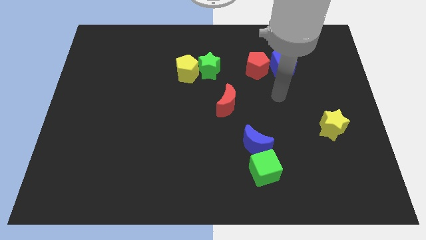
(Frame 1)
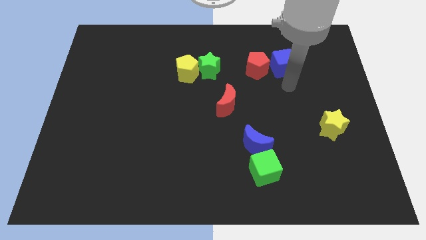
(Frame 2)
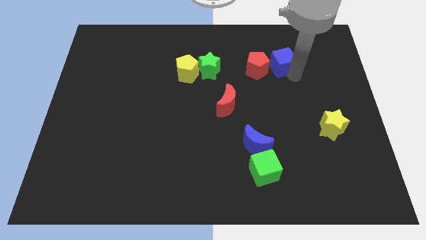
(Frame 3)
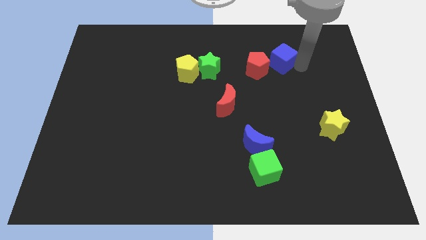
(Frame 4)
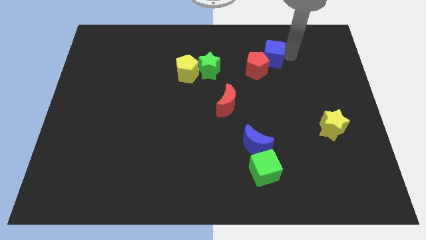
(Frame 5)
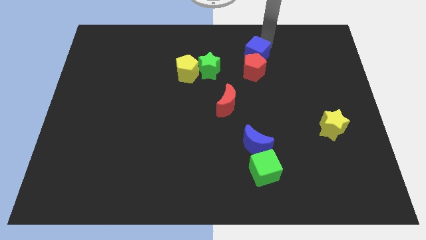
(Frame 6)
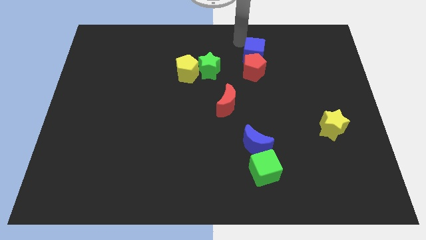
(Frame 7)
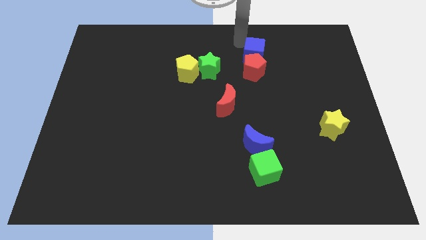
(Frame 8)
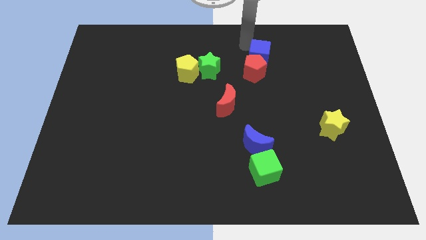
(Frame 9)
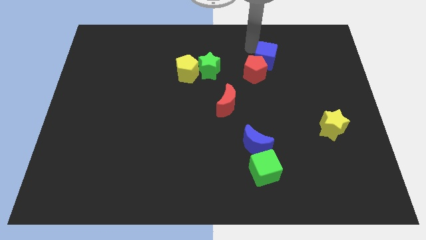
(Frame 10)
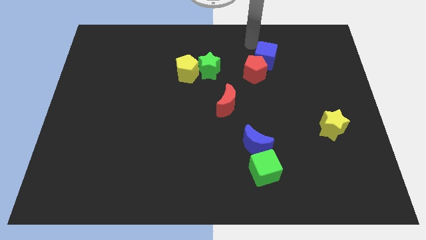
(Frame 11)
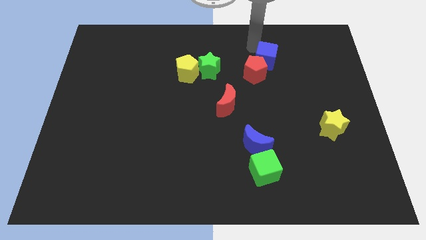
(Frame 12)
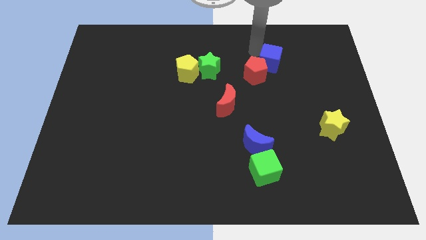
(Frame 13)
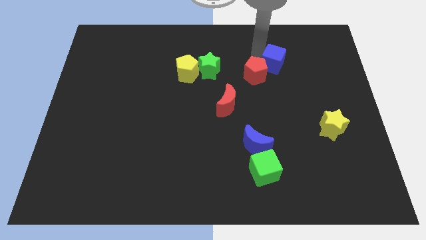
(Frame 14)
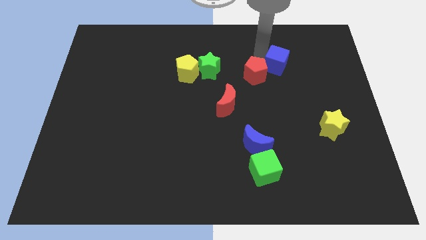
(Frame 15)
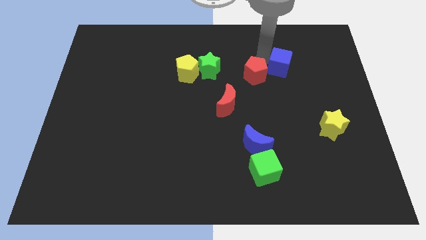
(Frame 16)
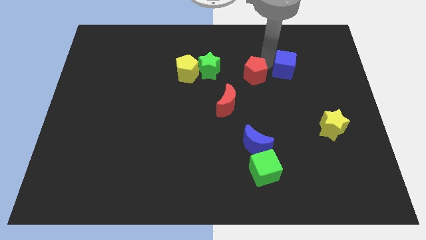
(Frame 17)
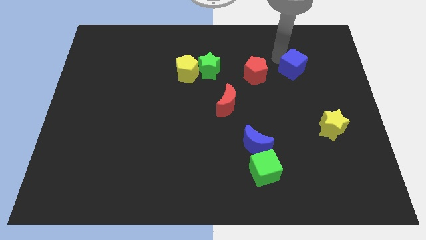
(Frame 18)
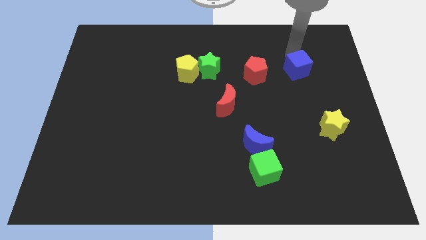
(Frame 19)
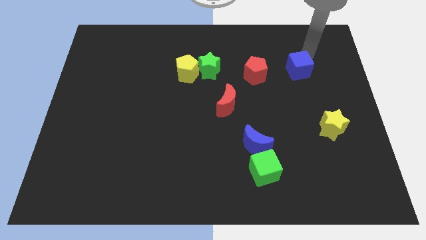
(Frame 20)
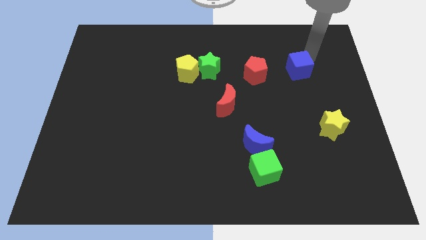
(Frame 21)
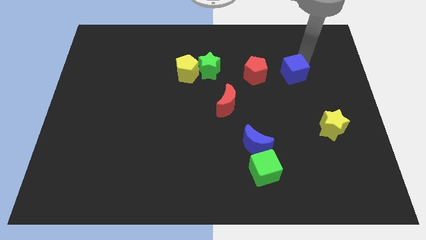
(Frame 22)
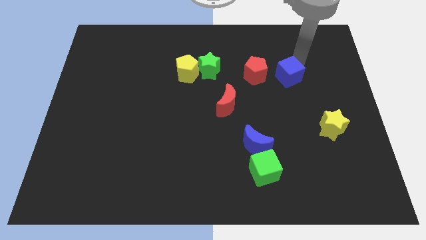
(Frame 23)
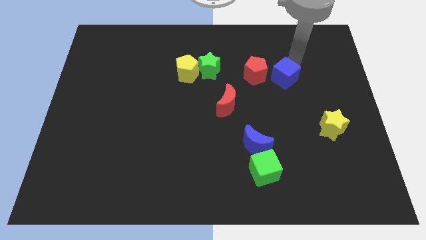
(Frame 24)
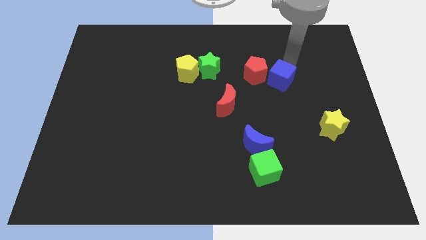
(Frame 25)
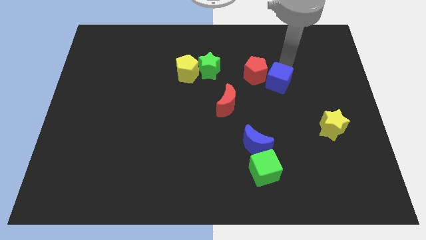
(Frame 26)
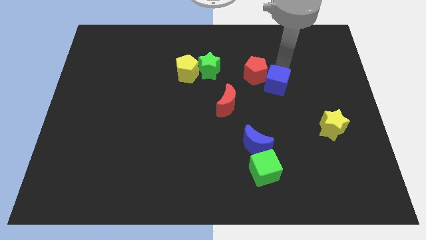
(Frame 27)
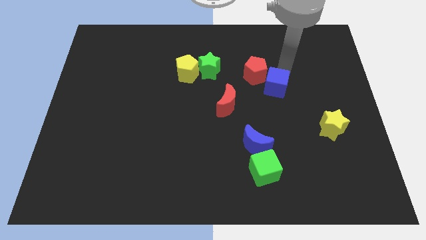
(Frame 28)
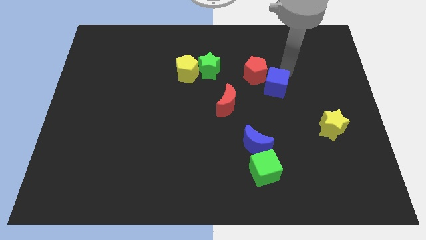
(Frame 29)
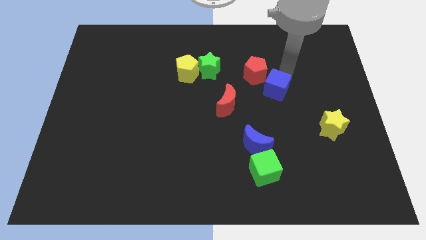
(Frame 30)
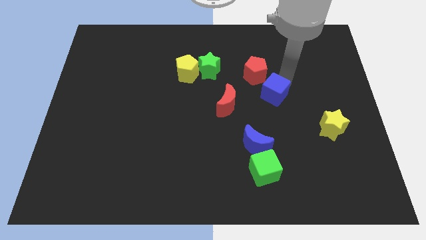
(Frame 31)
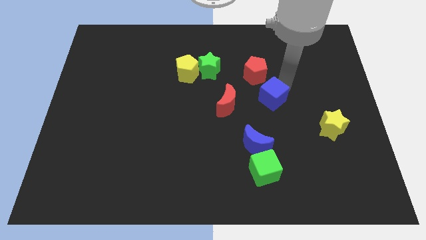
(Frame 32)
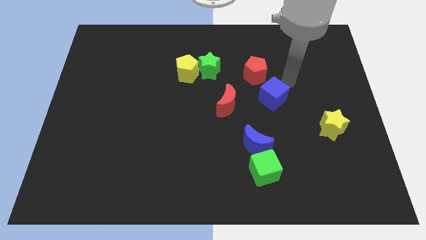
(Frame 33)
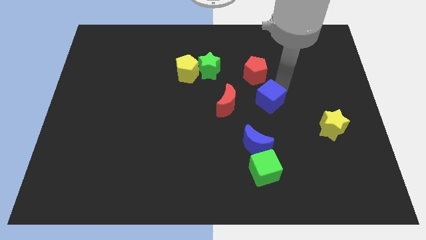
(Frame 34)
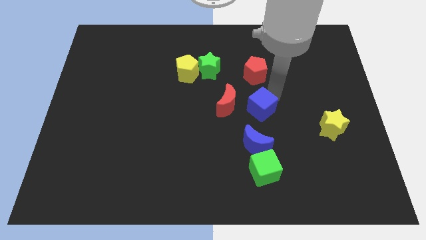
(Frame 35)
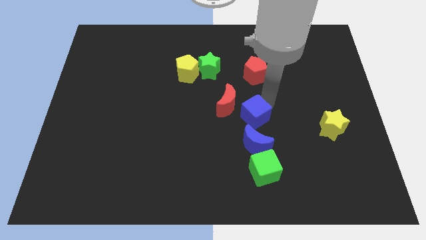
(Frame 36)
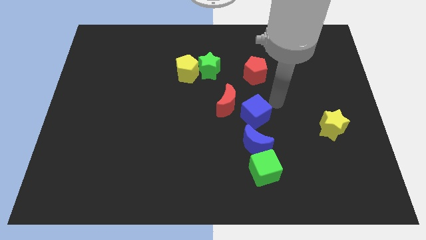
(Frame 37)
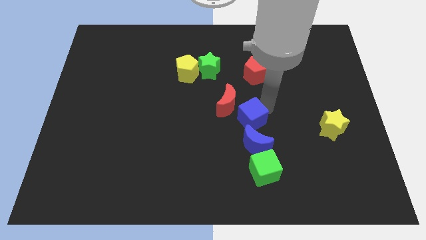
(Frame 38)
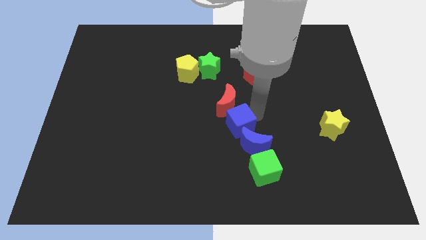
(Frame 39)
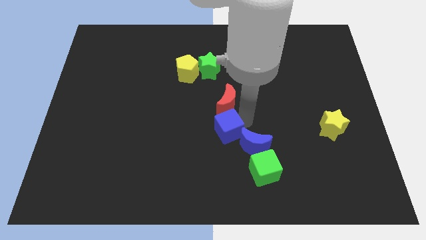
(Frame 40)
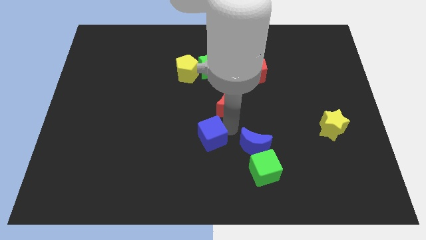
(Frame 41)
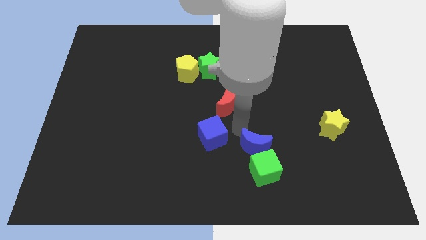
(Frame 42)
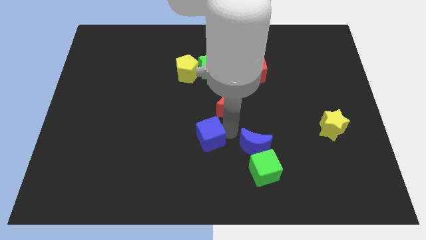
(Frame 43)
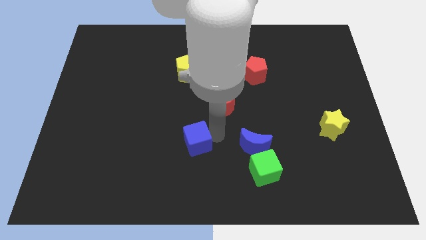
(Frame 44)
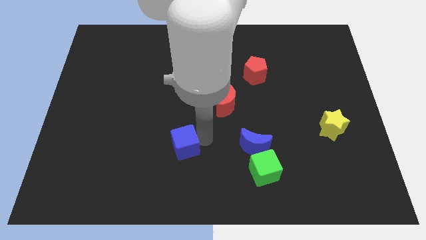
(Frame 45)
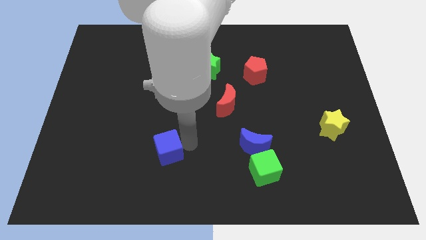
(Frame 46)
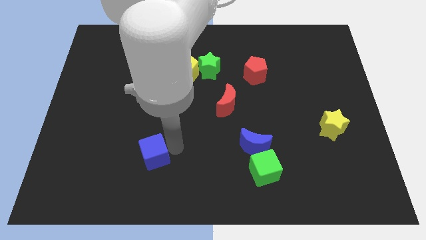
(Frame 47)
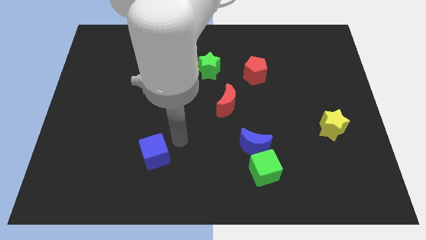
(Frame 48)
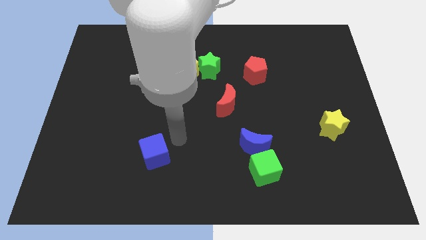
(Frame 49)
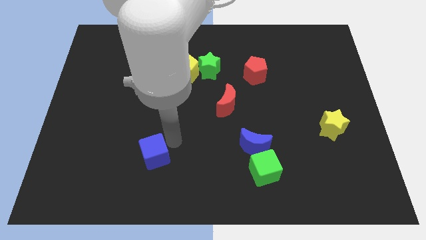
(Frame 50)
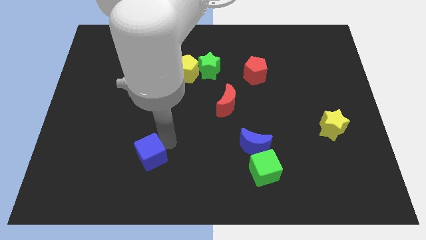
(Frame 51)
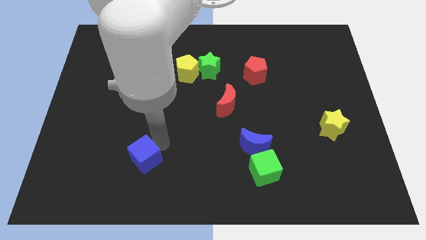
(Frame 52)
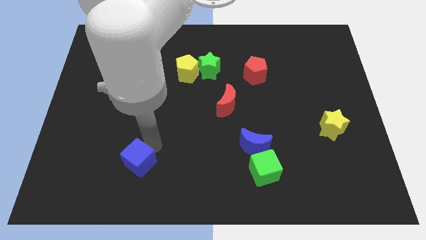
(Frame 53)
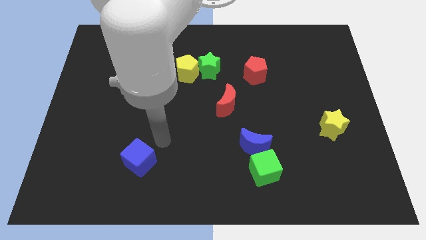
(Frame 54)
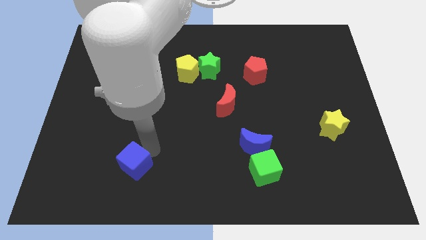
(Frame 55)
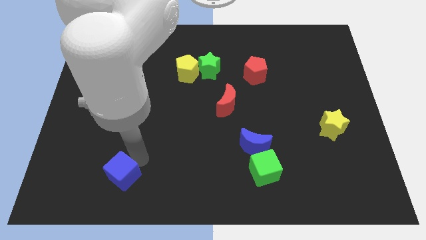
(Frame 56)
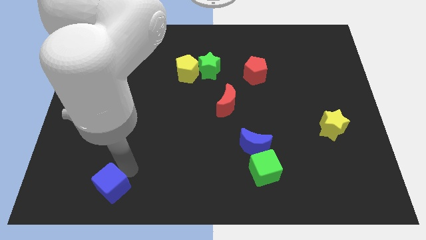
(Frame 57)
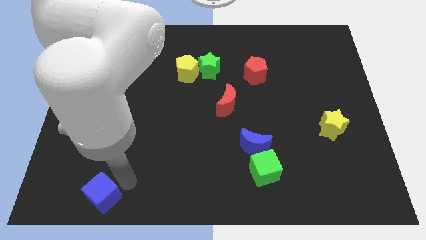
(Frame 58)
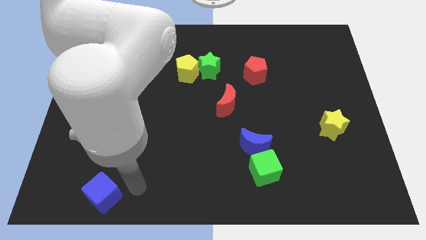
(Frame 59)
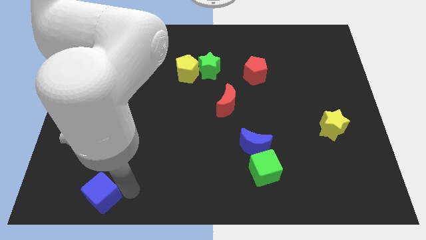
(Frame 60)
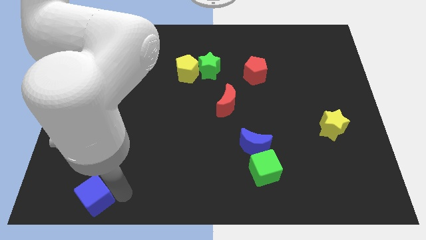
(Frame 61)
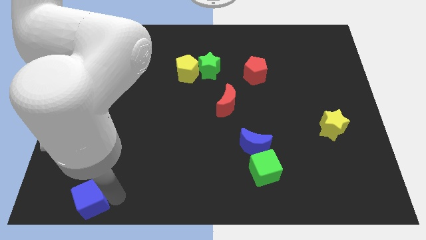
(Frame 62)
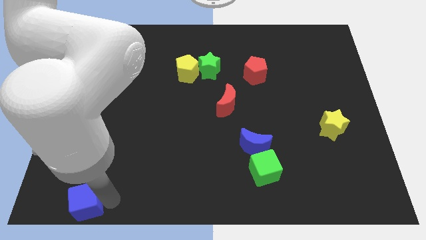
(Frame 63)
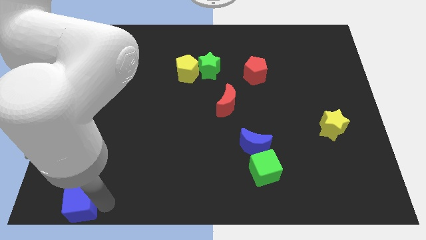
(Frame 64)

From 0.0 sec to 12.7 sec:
put the blue cube to the lower left corner

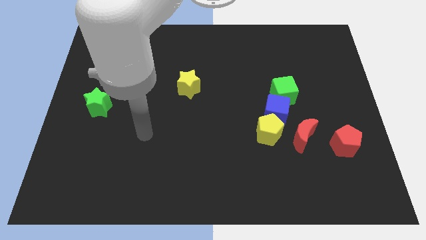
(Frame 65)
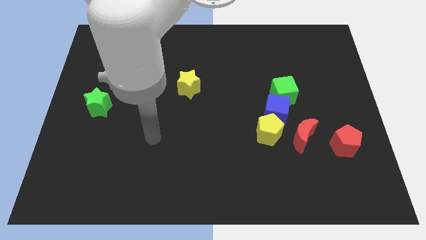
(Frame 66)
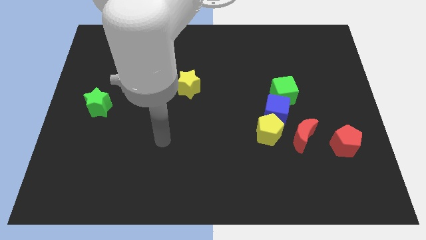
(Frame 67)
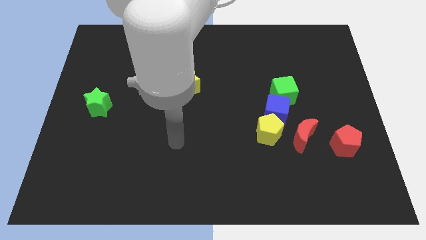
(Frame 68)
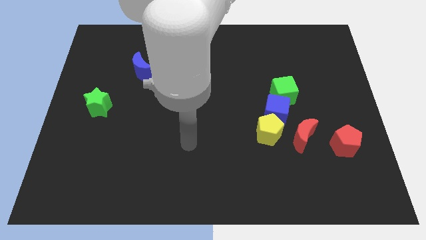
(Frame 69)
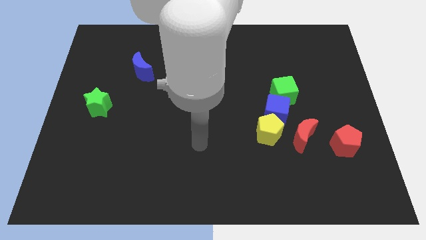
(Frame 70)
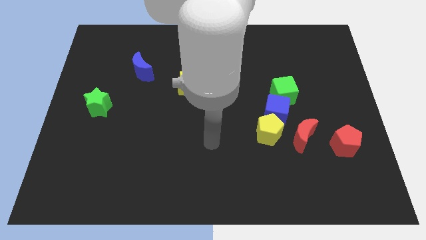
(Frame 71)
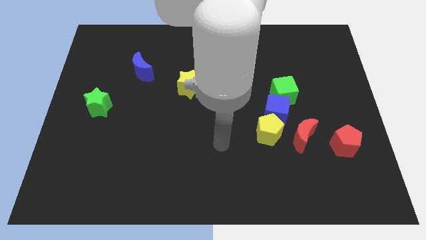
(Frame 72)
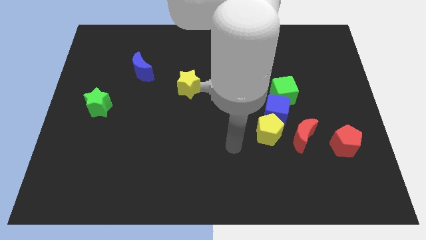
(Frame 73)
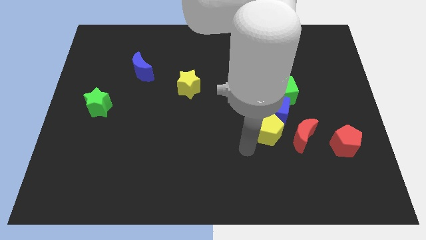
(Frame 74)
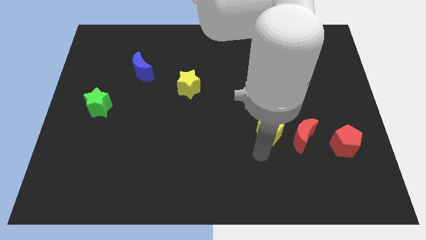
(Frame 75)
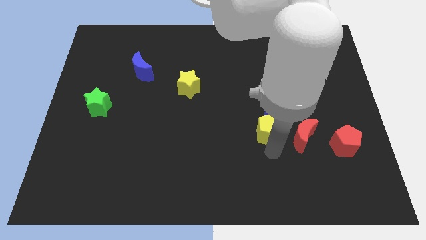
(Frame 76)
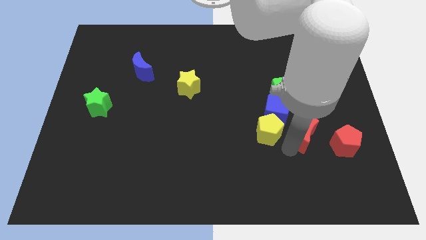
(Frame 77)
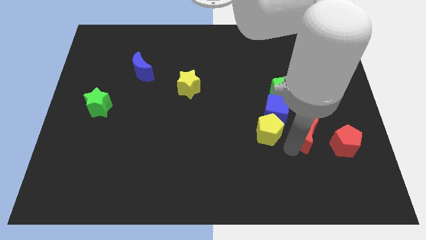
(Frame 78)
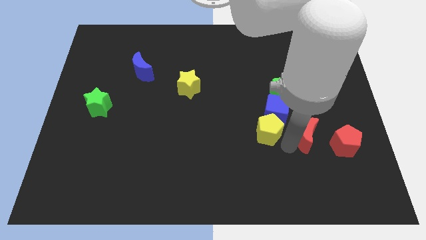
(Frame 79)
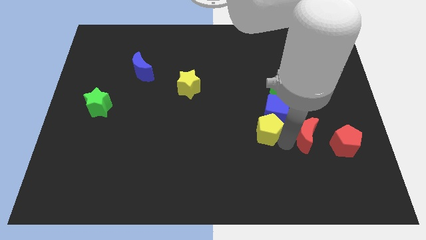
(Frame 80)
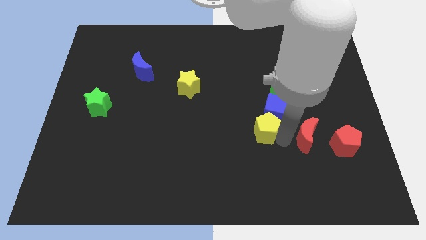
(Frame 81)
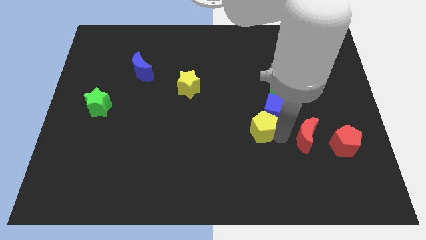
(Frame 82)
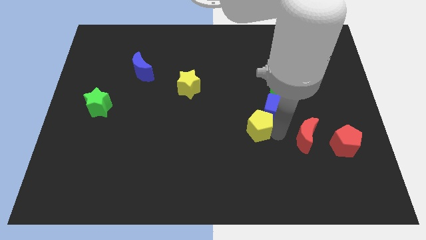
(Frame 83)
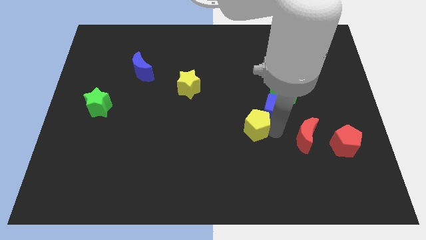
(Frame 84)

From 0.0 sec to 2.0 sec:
put the yellow pentagon to the center
